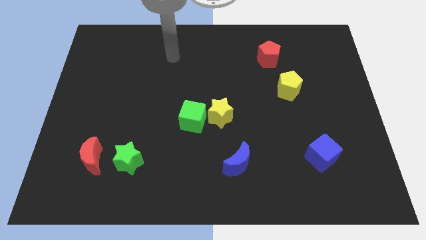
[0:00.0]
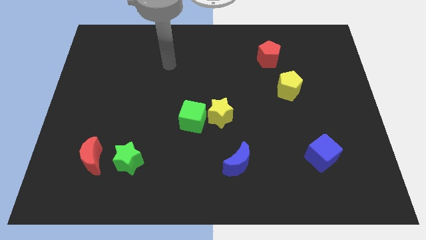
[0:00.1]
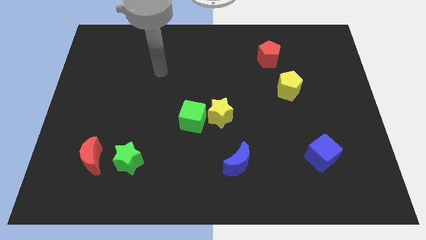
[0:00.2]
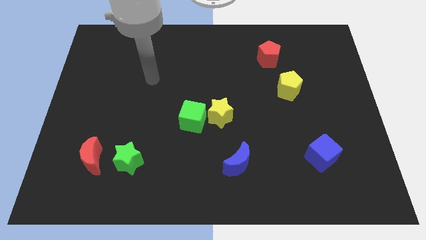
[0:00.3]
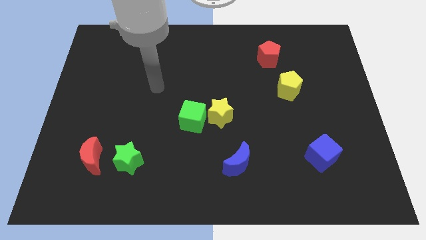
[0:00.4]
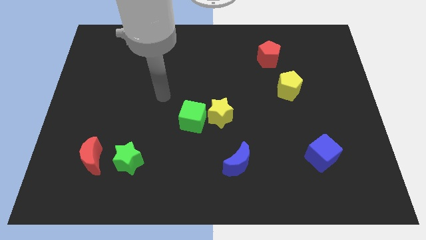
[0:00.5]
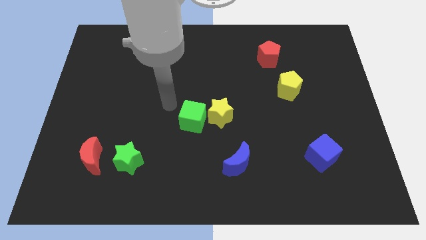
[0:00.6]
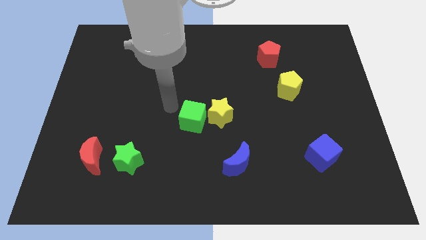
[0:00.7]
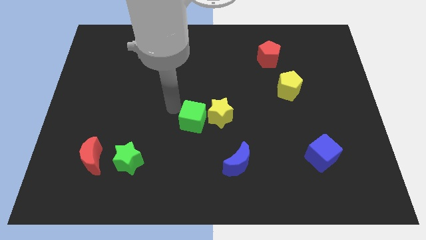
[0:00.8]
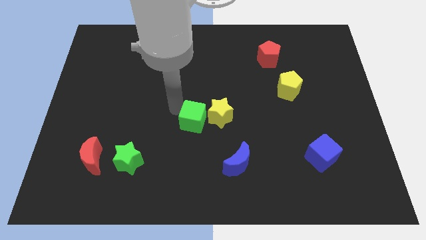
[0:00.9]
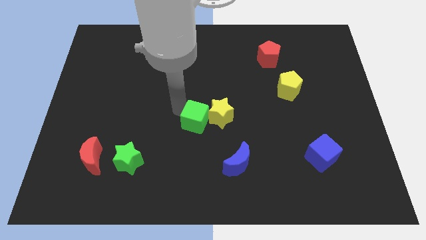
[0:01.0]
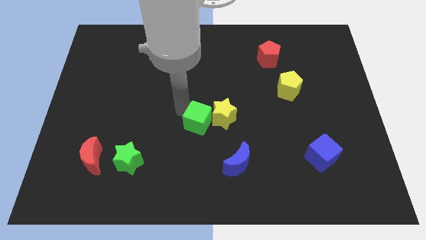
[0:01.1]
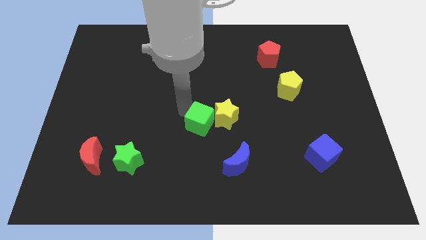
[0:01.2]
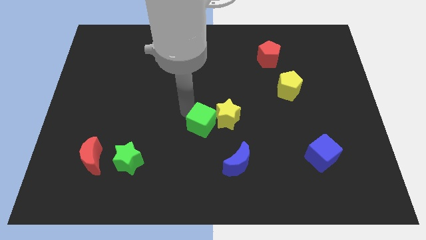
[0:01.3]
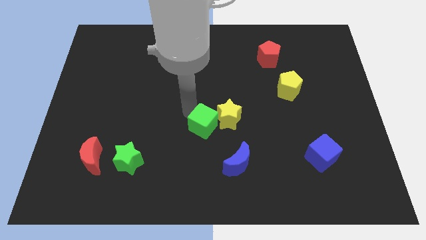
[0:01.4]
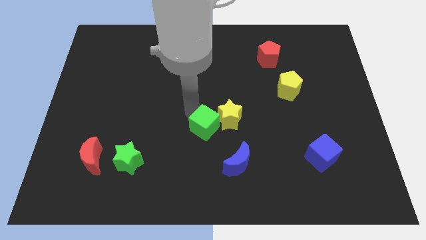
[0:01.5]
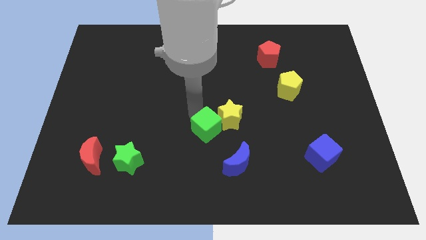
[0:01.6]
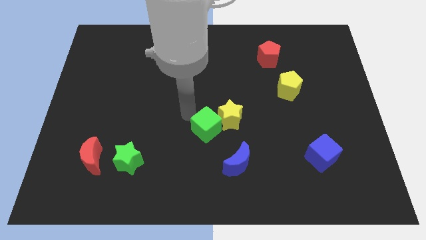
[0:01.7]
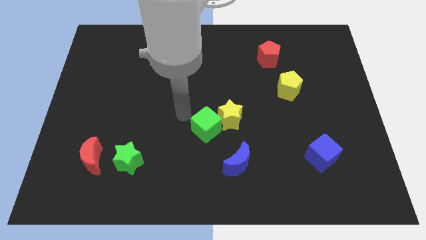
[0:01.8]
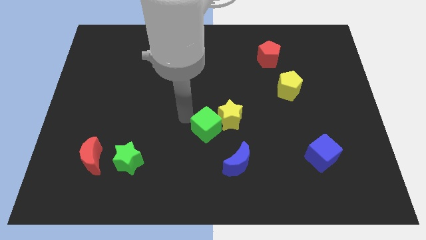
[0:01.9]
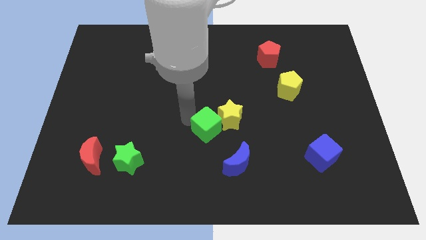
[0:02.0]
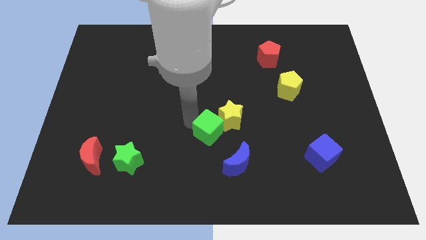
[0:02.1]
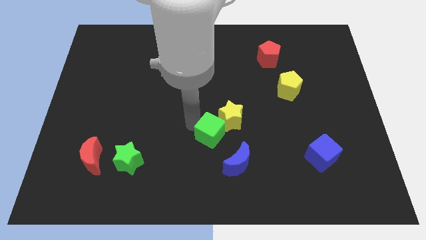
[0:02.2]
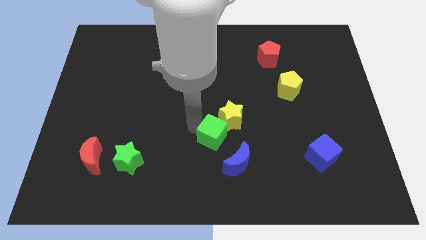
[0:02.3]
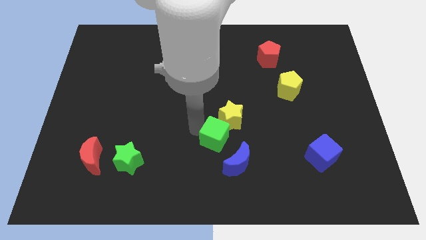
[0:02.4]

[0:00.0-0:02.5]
slightly move the green cube diagonally downwards and to the right

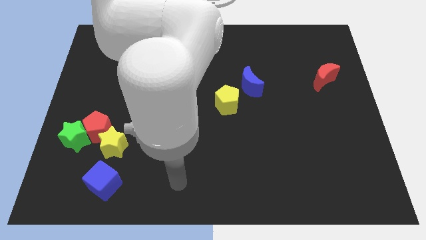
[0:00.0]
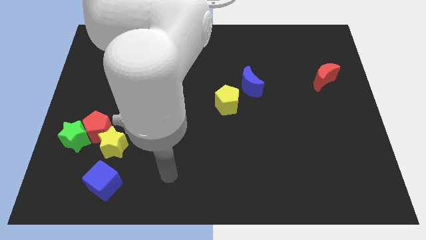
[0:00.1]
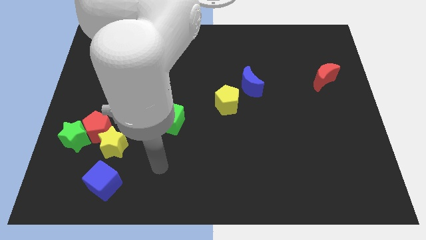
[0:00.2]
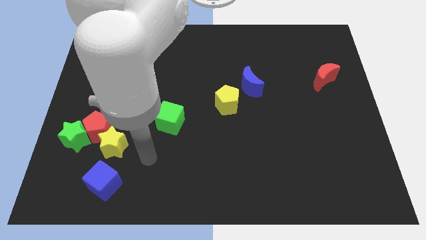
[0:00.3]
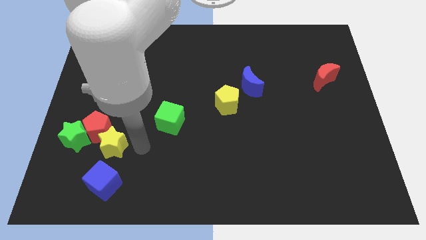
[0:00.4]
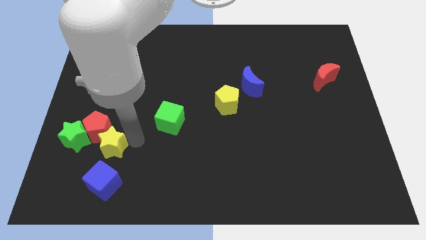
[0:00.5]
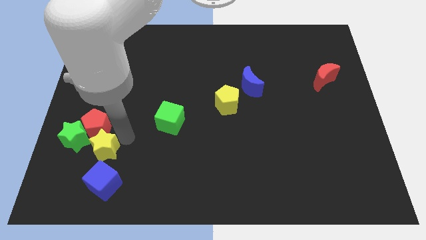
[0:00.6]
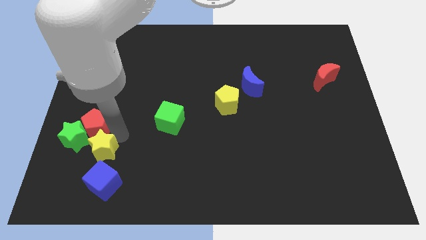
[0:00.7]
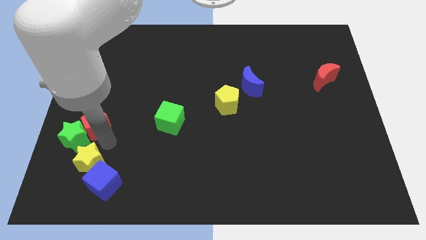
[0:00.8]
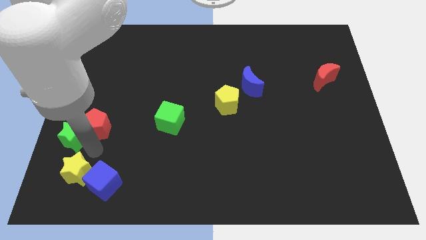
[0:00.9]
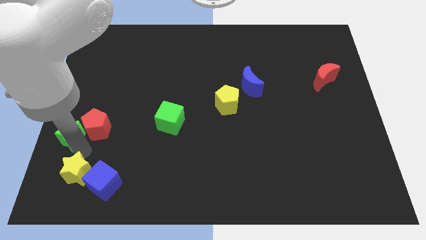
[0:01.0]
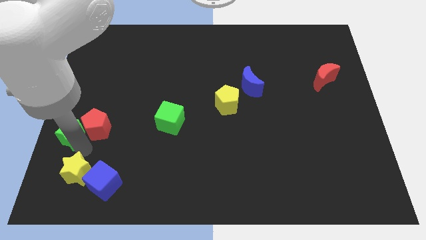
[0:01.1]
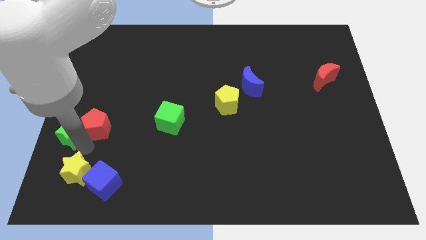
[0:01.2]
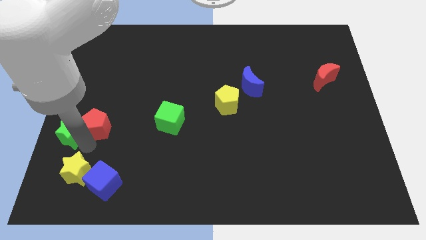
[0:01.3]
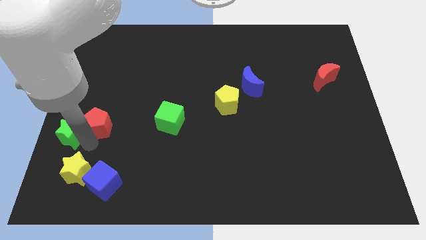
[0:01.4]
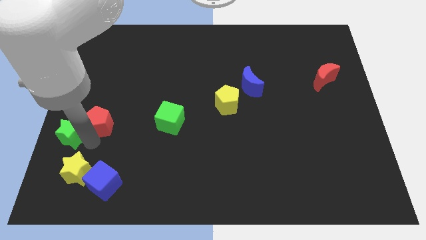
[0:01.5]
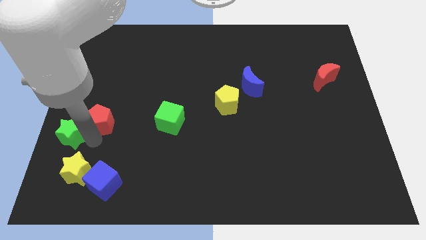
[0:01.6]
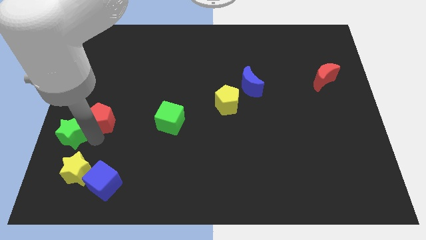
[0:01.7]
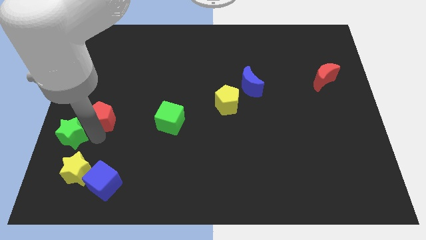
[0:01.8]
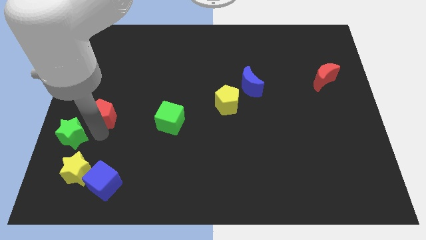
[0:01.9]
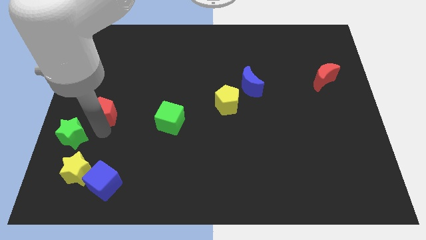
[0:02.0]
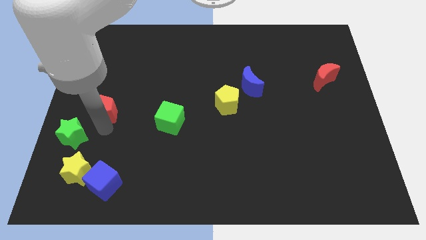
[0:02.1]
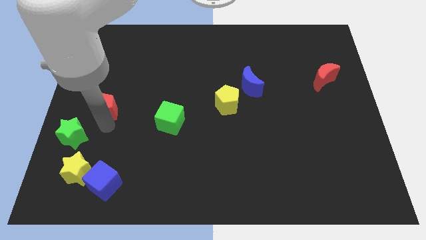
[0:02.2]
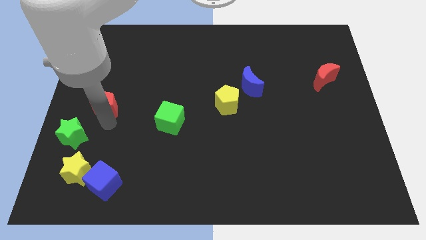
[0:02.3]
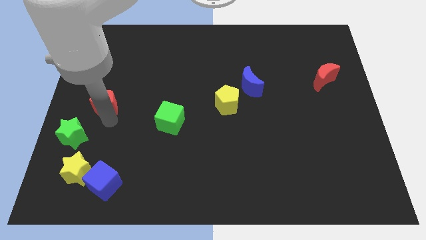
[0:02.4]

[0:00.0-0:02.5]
slightly move the red pentagon up

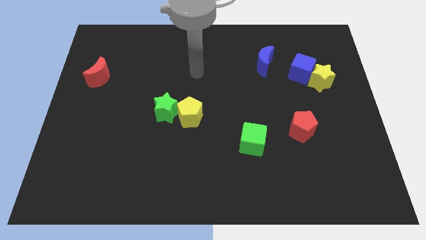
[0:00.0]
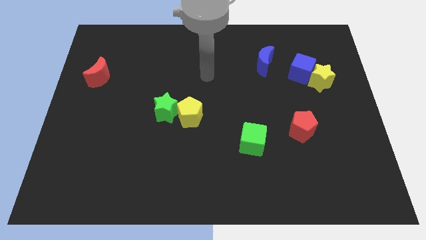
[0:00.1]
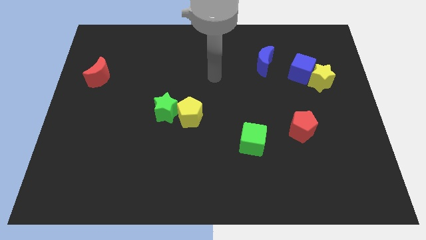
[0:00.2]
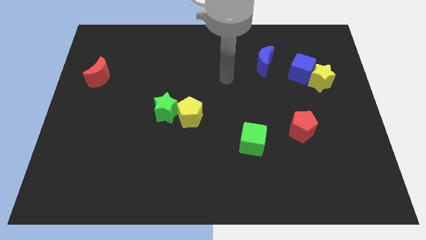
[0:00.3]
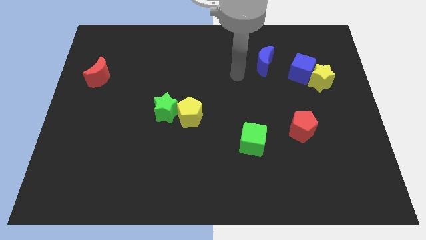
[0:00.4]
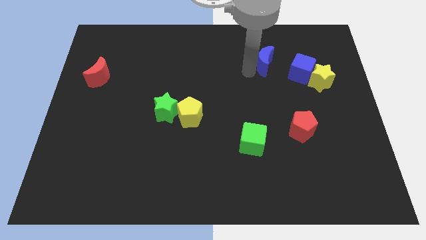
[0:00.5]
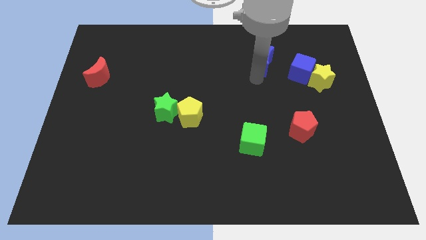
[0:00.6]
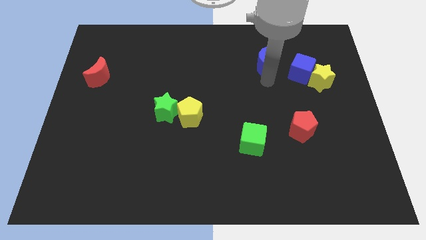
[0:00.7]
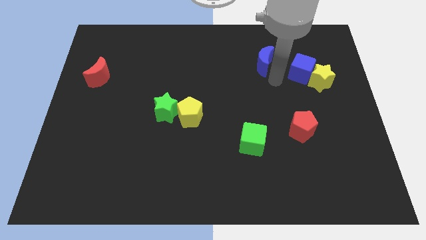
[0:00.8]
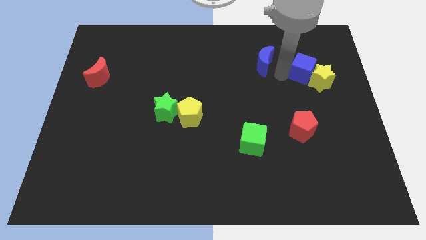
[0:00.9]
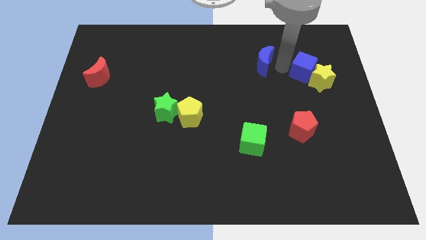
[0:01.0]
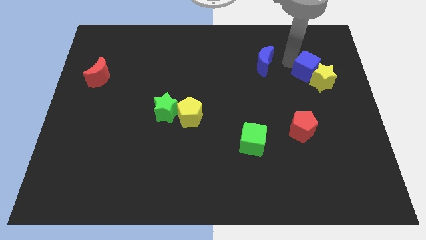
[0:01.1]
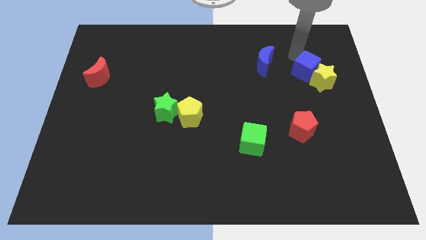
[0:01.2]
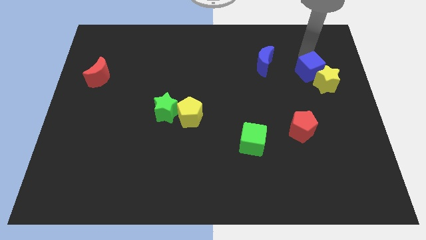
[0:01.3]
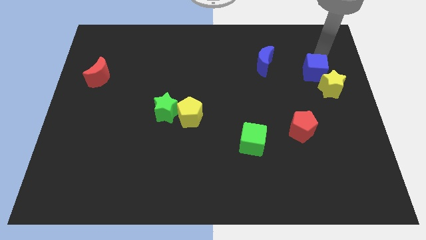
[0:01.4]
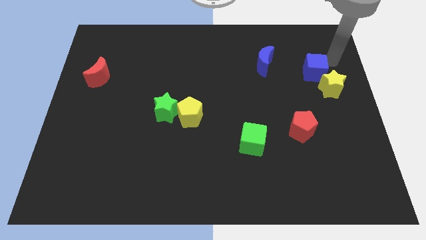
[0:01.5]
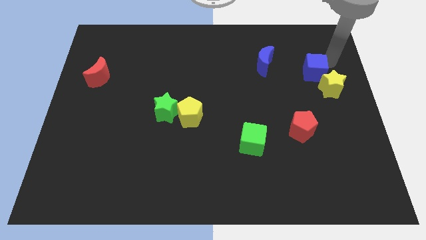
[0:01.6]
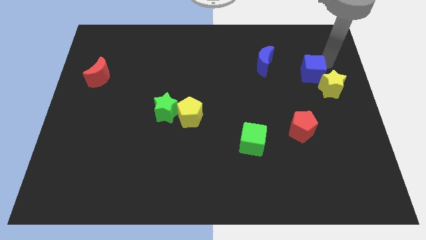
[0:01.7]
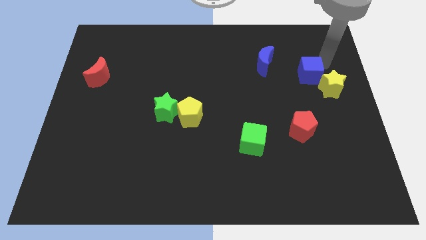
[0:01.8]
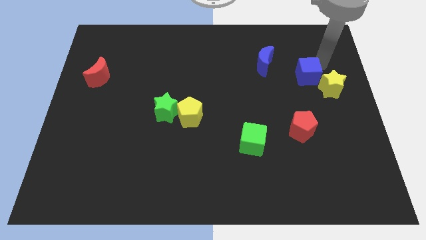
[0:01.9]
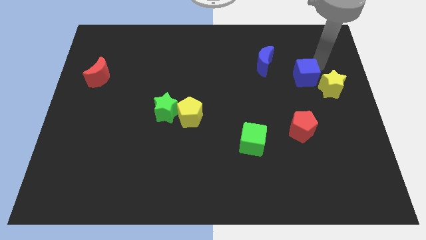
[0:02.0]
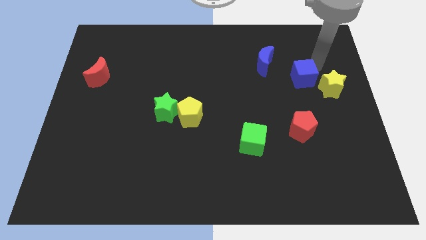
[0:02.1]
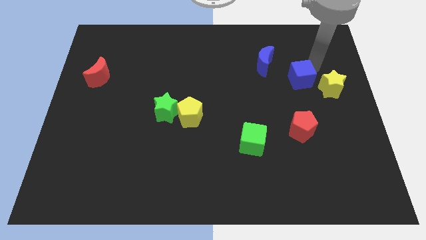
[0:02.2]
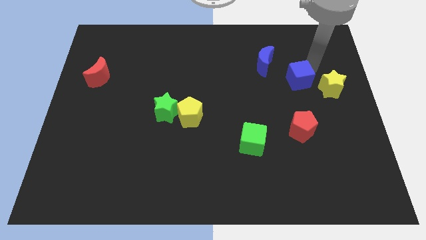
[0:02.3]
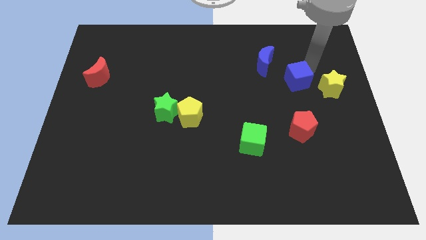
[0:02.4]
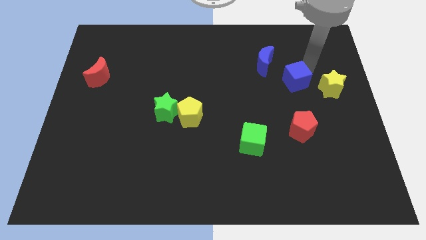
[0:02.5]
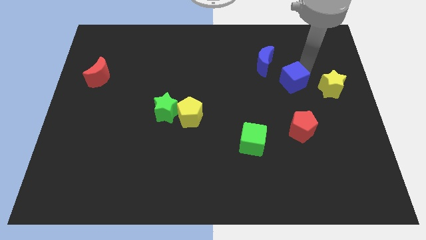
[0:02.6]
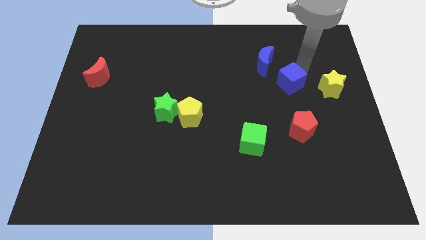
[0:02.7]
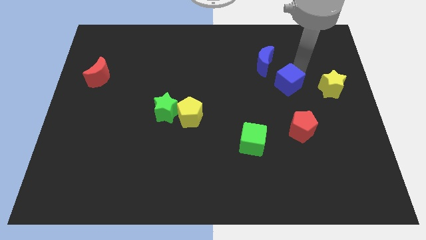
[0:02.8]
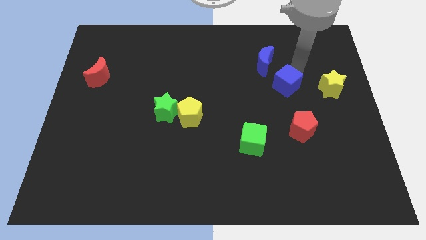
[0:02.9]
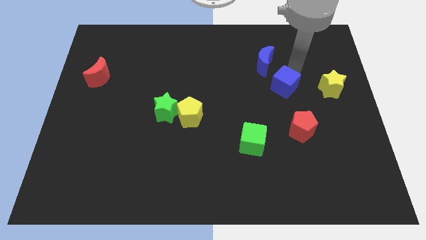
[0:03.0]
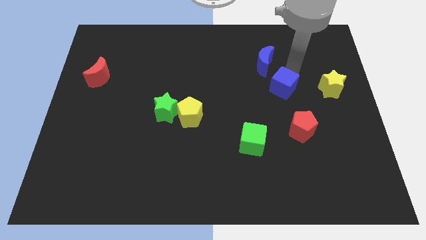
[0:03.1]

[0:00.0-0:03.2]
push the blue cube diagonally down and to the left a little
